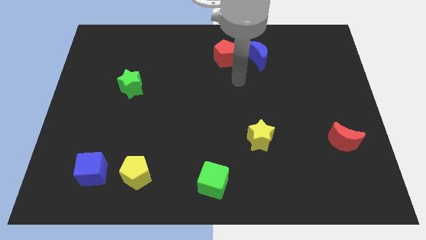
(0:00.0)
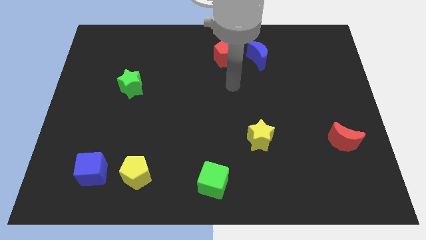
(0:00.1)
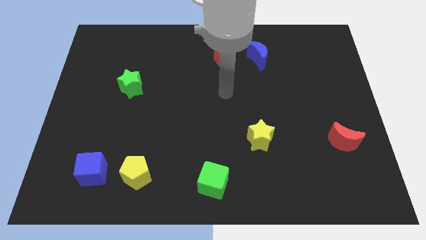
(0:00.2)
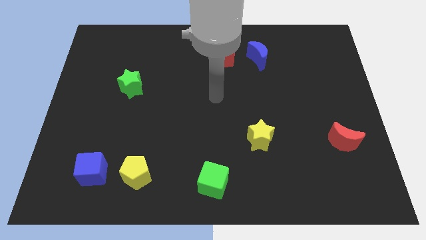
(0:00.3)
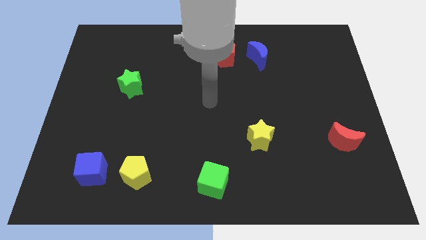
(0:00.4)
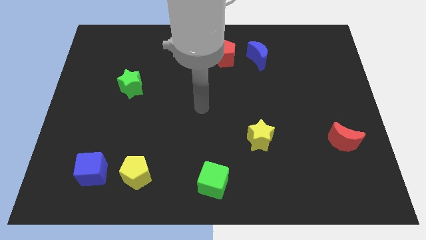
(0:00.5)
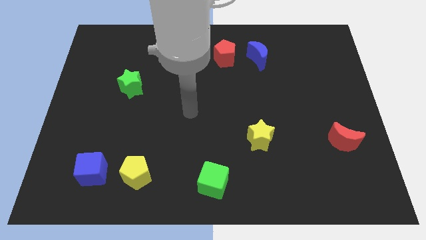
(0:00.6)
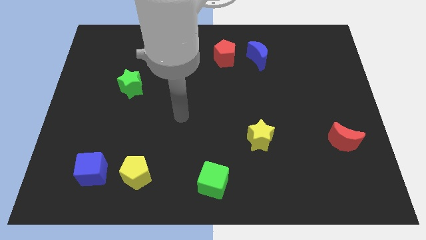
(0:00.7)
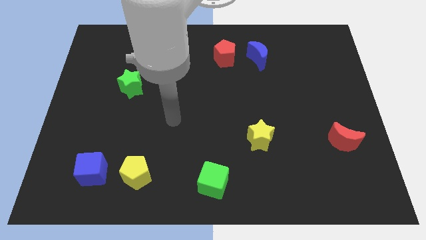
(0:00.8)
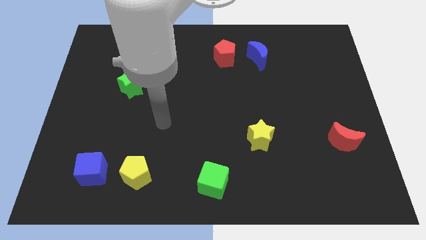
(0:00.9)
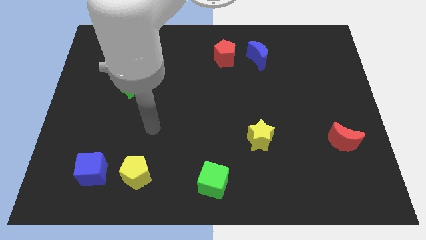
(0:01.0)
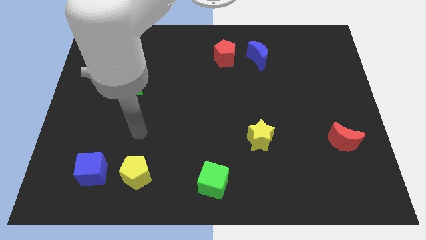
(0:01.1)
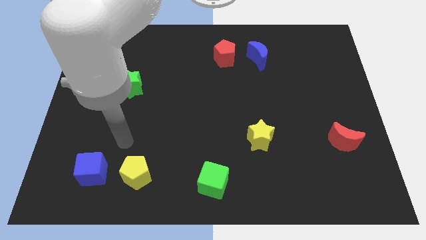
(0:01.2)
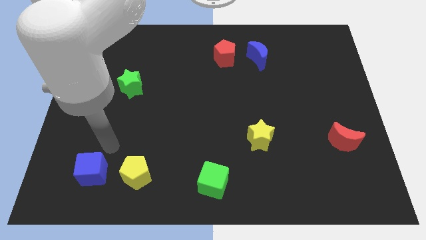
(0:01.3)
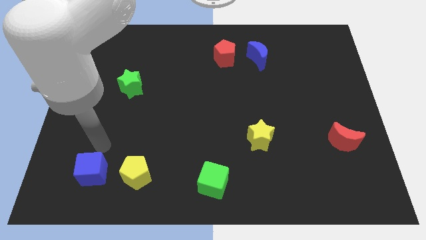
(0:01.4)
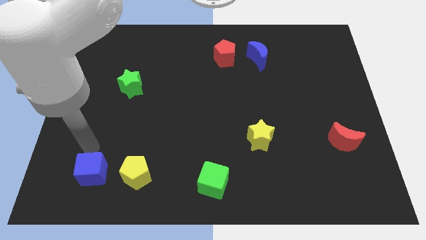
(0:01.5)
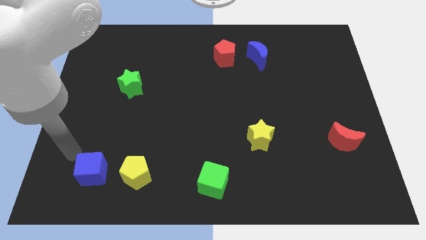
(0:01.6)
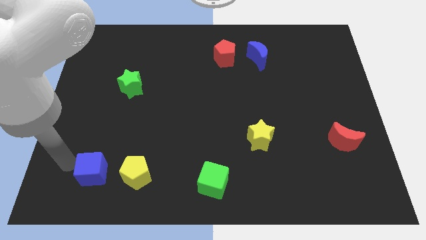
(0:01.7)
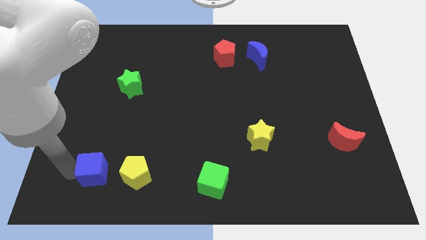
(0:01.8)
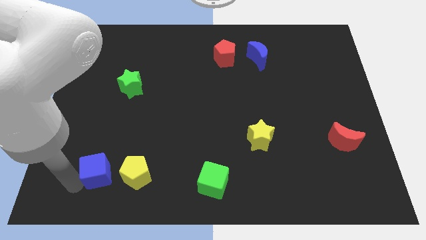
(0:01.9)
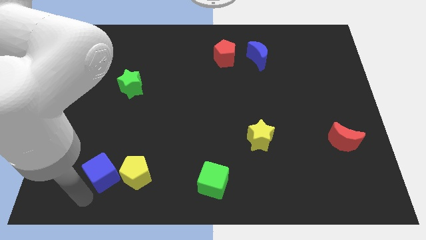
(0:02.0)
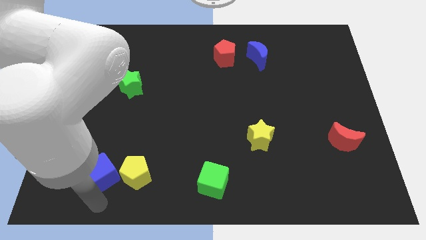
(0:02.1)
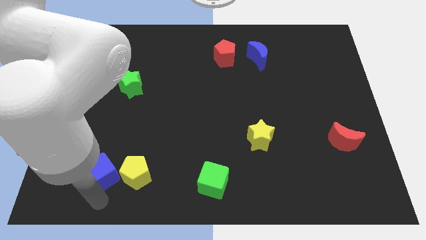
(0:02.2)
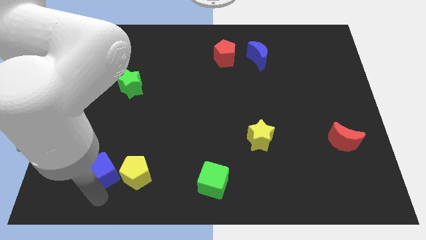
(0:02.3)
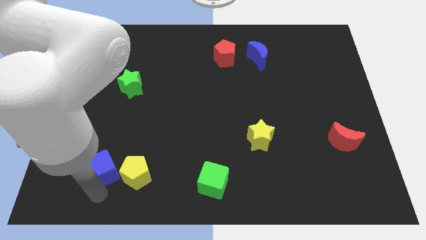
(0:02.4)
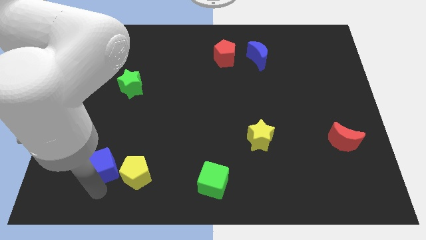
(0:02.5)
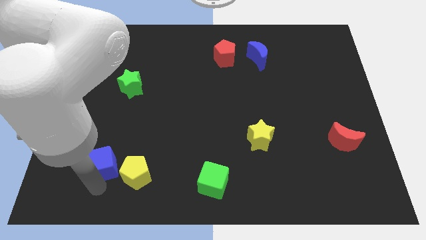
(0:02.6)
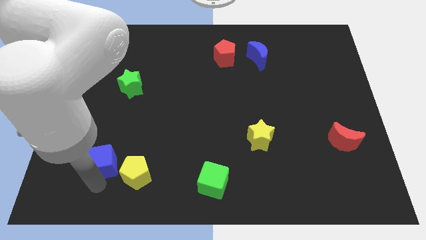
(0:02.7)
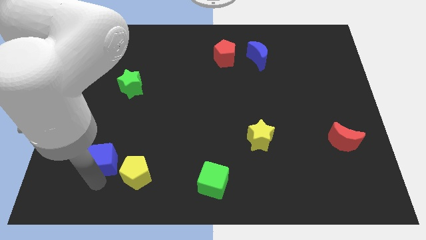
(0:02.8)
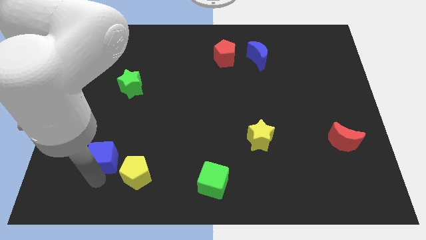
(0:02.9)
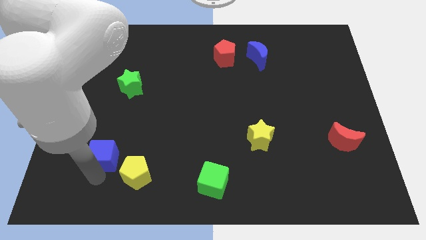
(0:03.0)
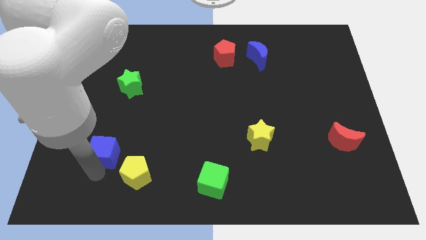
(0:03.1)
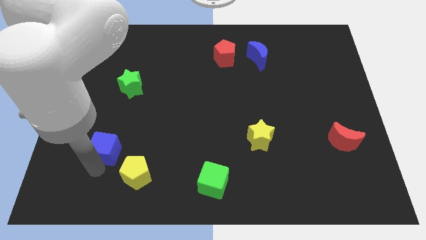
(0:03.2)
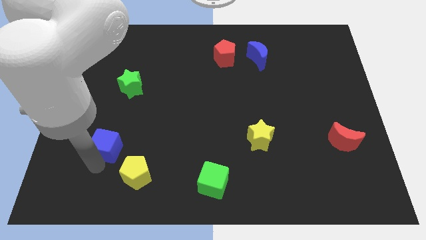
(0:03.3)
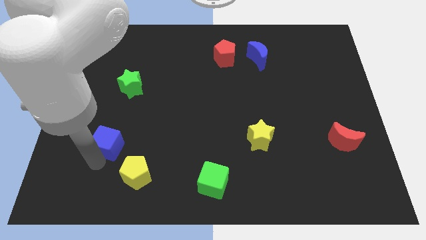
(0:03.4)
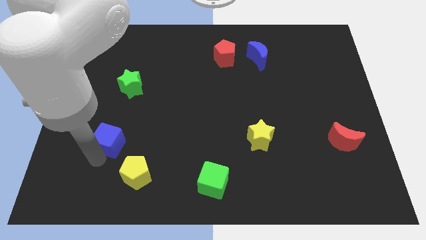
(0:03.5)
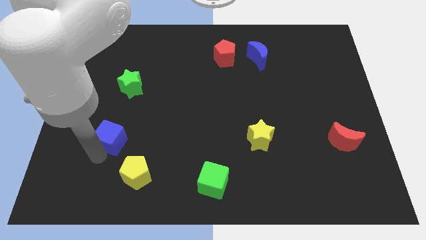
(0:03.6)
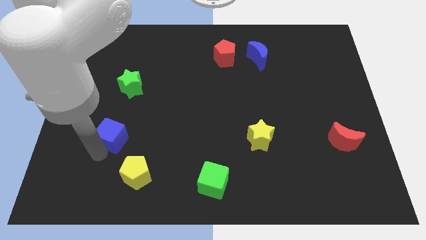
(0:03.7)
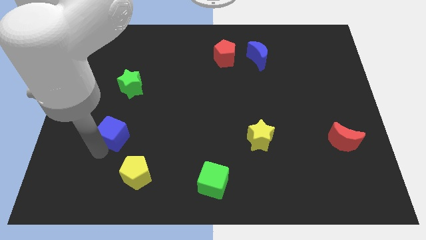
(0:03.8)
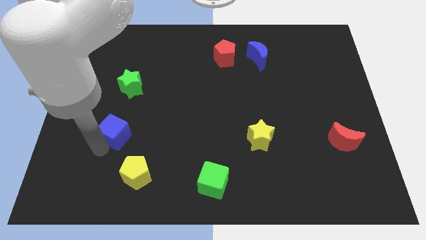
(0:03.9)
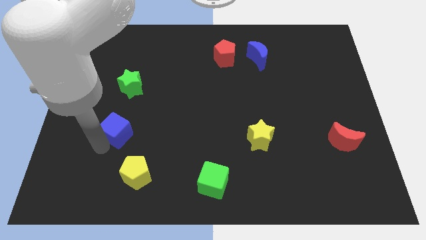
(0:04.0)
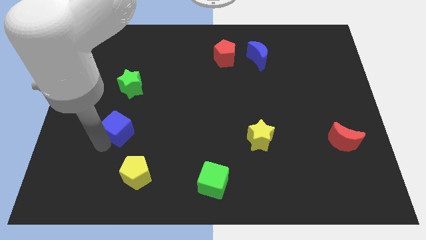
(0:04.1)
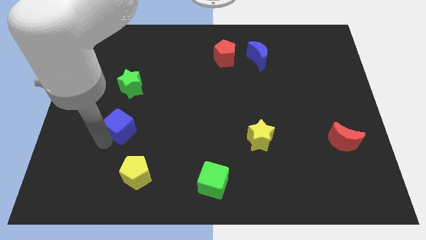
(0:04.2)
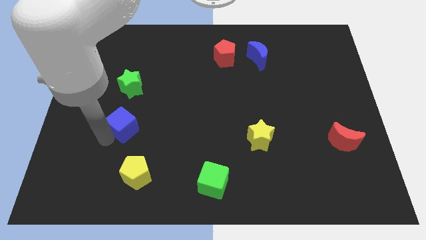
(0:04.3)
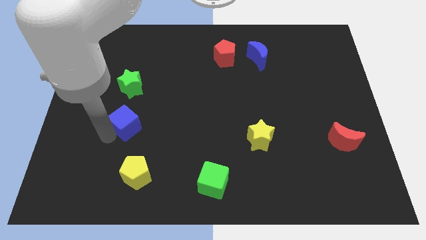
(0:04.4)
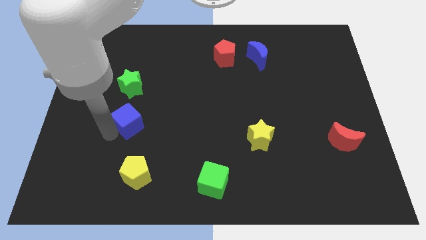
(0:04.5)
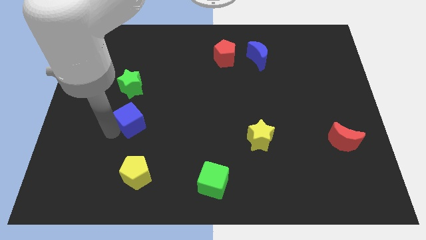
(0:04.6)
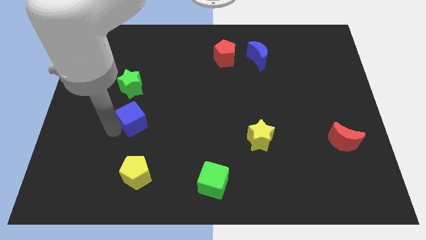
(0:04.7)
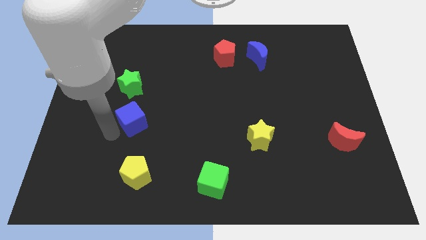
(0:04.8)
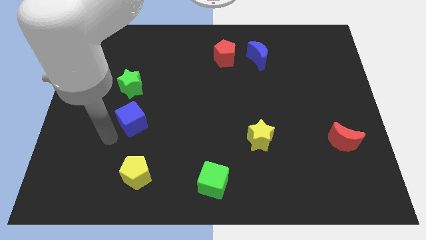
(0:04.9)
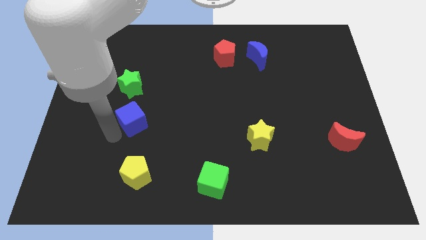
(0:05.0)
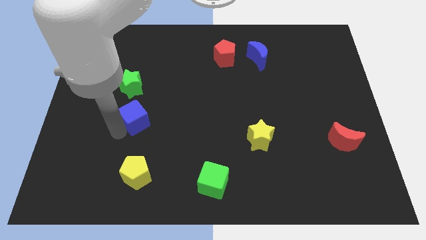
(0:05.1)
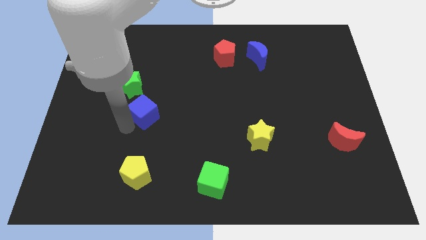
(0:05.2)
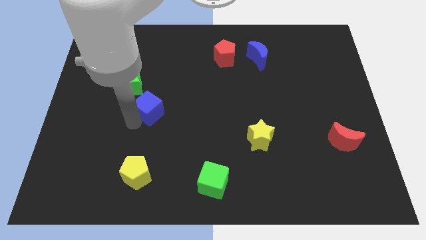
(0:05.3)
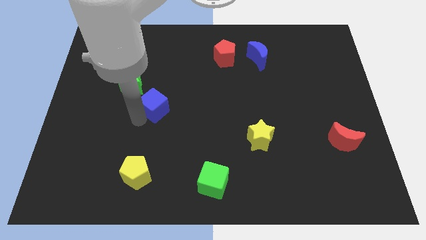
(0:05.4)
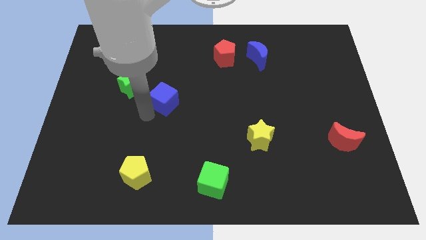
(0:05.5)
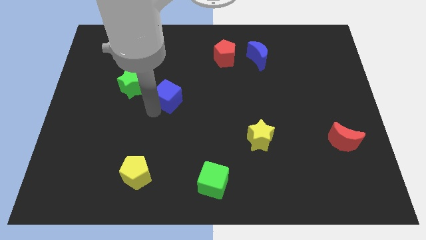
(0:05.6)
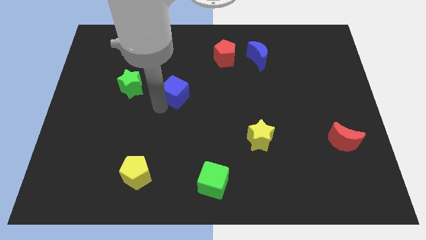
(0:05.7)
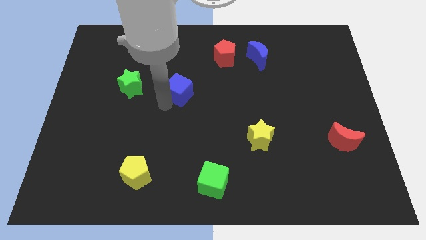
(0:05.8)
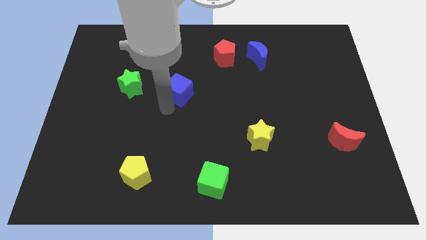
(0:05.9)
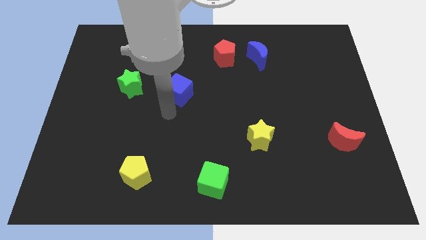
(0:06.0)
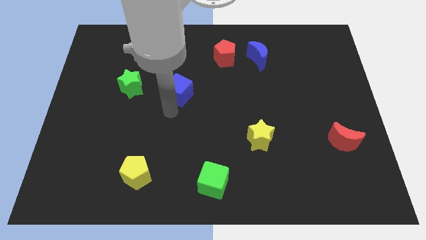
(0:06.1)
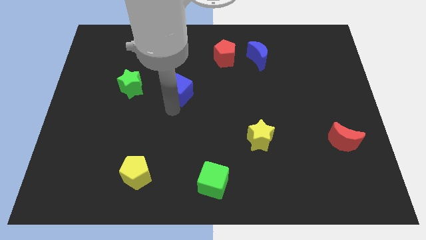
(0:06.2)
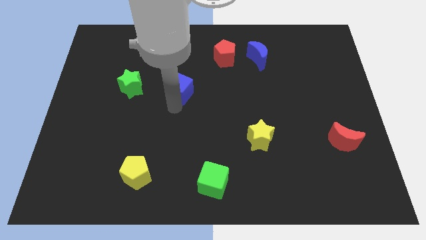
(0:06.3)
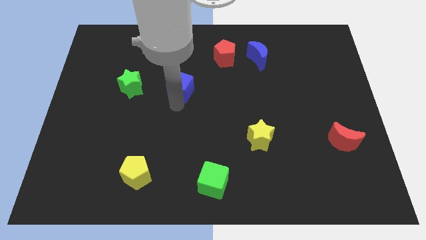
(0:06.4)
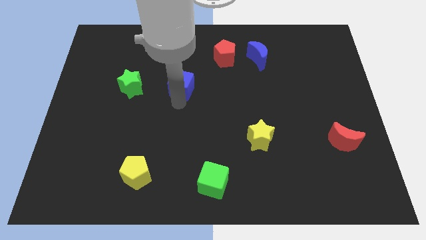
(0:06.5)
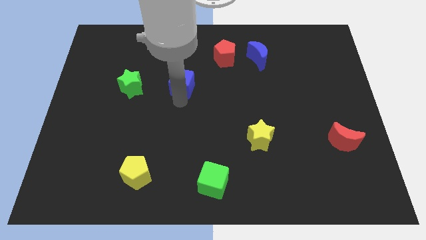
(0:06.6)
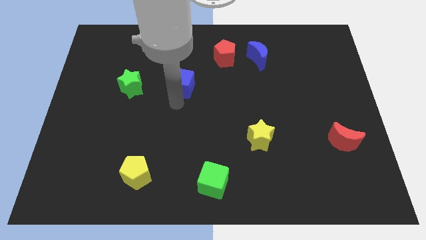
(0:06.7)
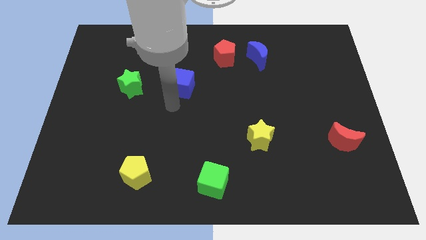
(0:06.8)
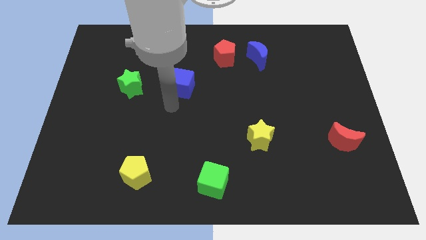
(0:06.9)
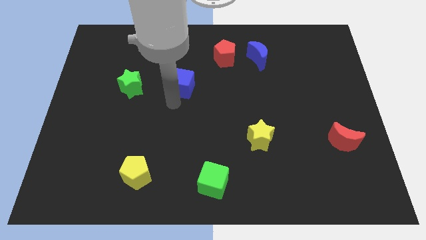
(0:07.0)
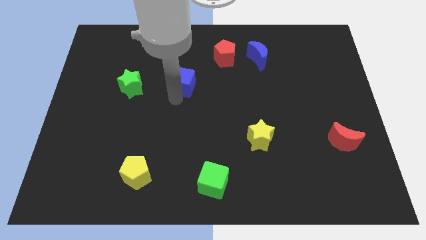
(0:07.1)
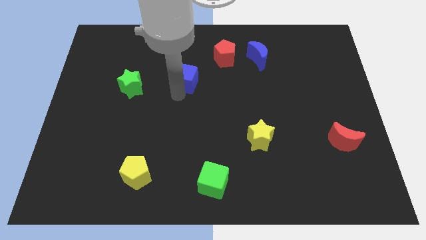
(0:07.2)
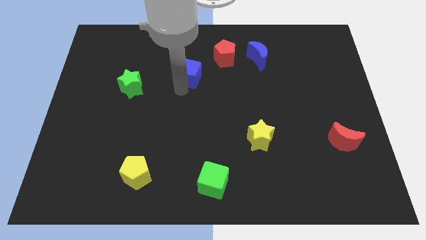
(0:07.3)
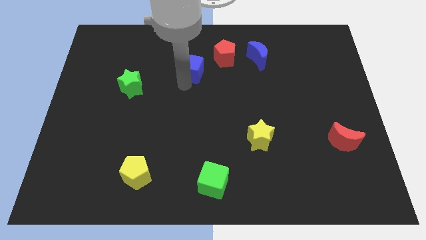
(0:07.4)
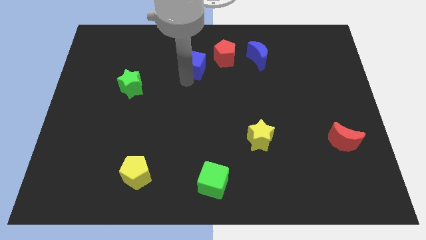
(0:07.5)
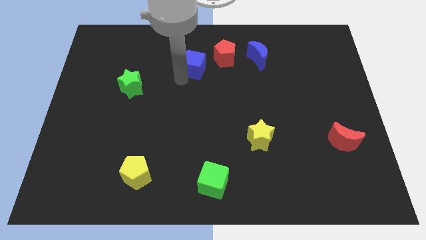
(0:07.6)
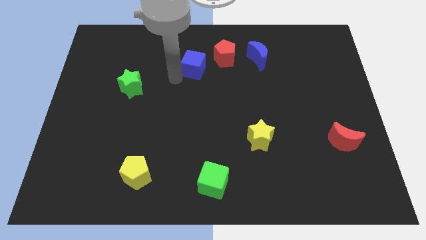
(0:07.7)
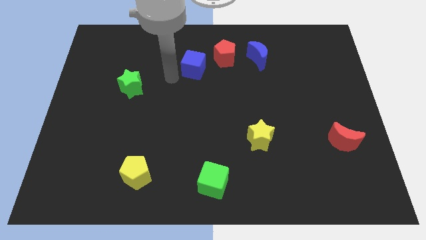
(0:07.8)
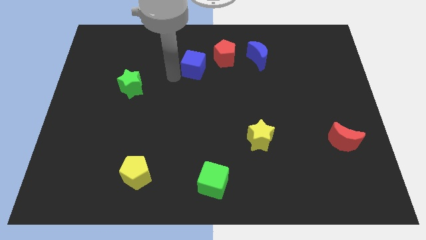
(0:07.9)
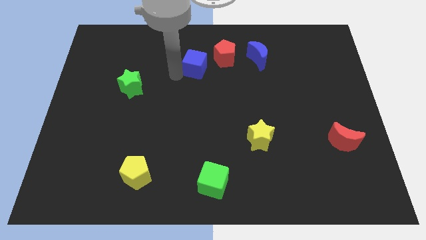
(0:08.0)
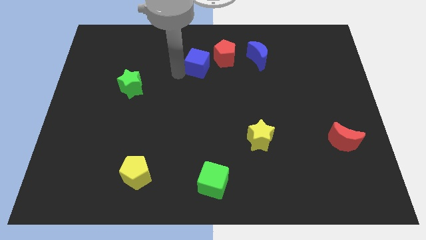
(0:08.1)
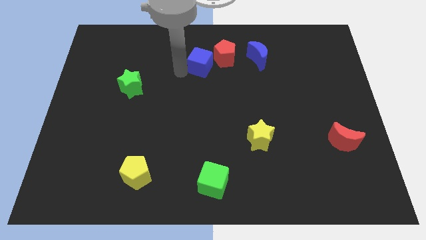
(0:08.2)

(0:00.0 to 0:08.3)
put the blue cube to the left side of the blue moon
